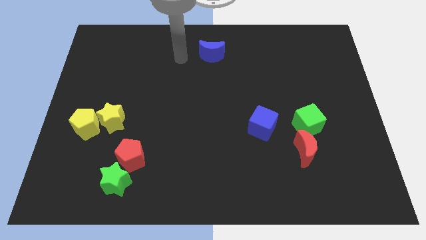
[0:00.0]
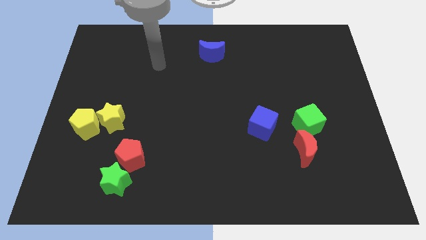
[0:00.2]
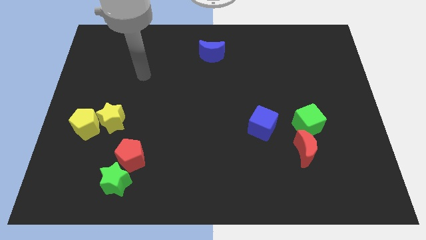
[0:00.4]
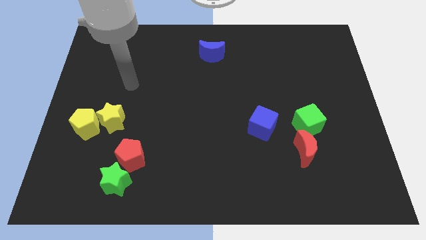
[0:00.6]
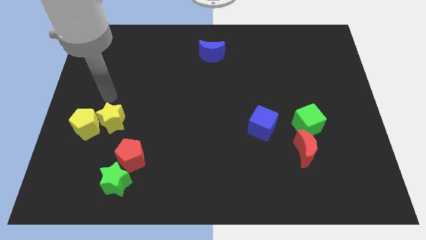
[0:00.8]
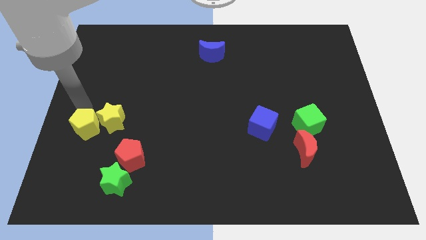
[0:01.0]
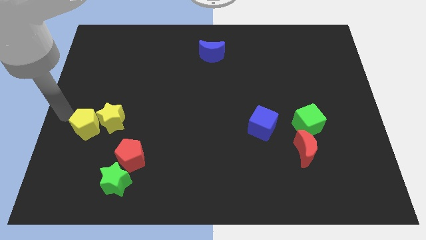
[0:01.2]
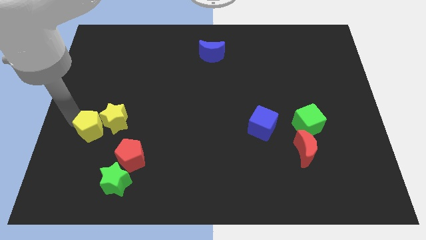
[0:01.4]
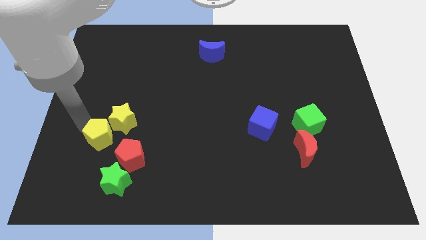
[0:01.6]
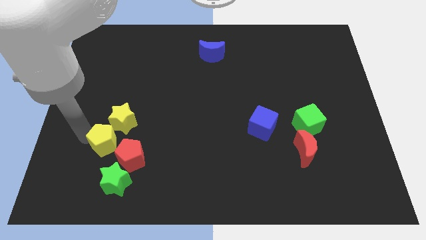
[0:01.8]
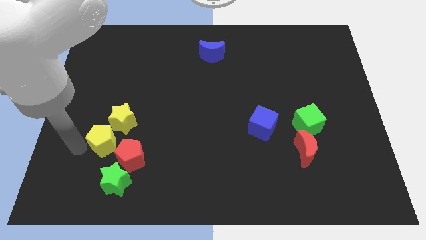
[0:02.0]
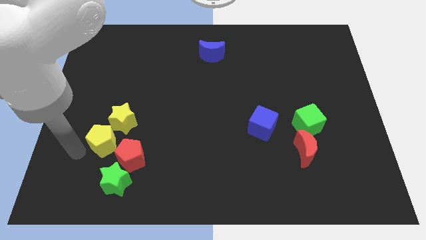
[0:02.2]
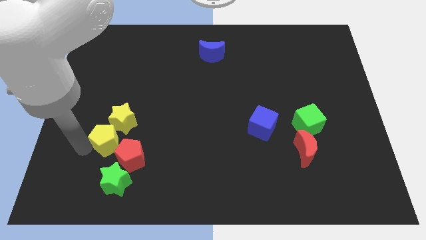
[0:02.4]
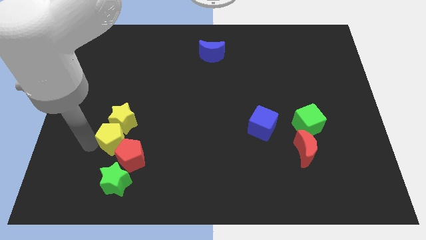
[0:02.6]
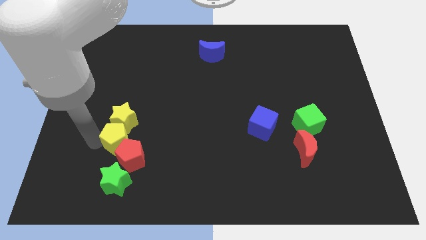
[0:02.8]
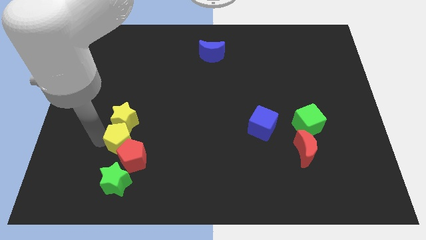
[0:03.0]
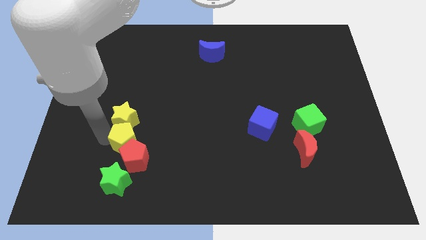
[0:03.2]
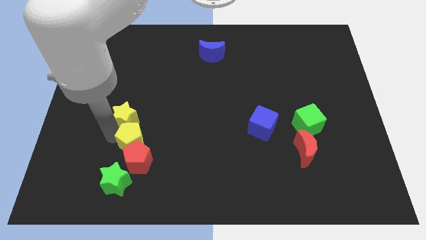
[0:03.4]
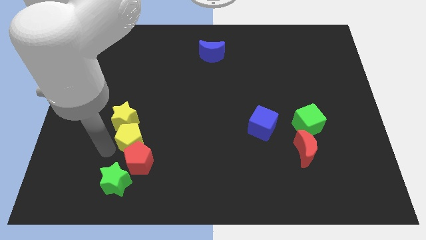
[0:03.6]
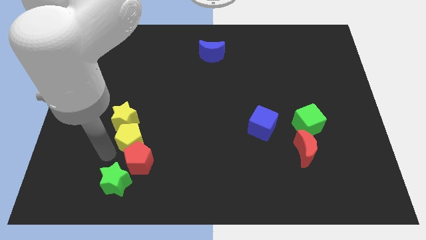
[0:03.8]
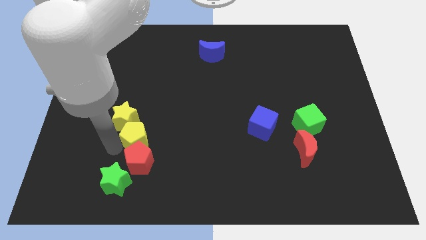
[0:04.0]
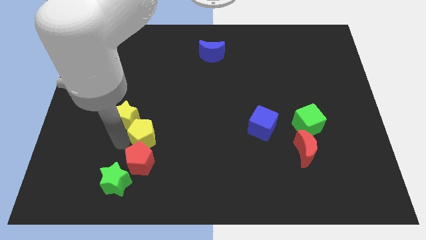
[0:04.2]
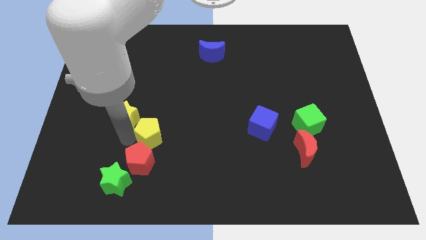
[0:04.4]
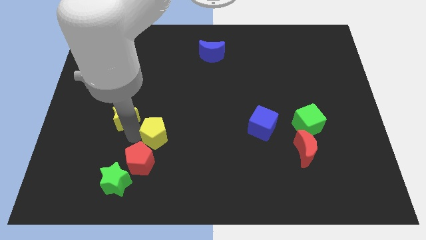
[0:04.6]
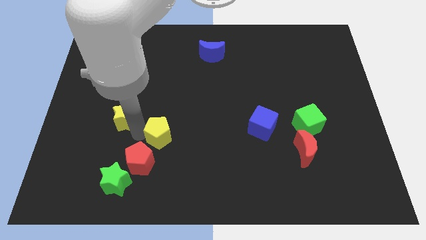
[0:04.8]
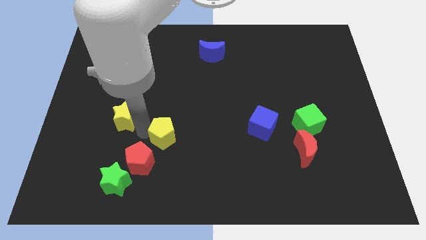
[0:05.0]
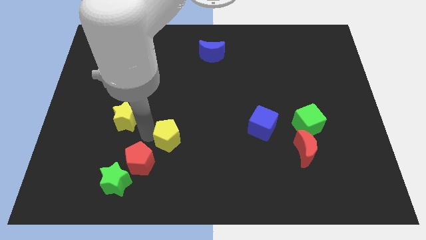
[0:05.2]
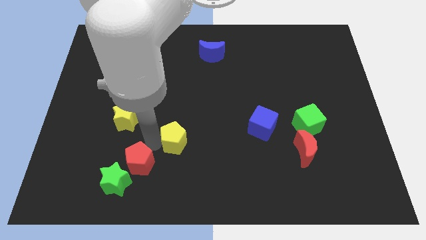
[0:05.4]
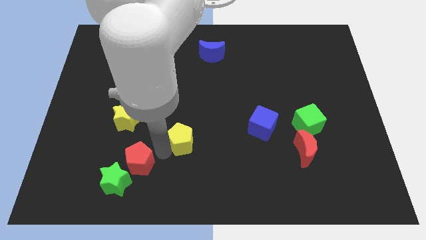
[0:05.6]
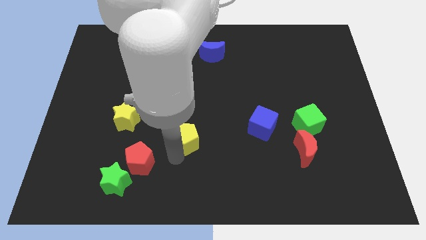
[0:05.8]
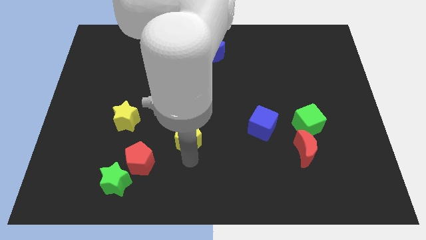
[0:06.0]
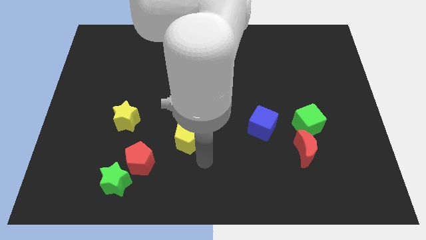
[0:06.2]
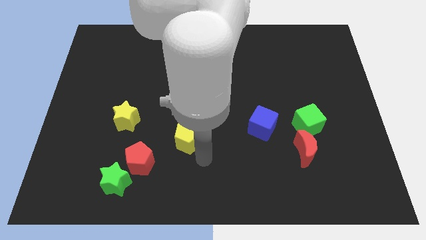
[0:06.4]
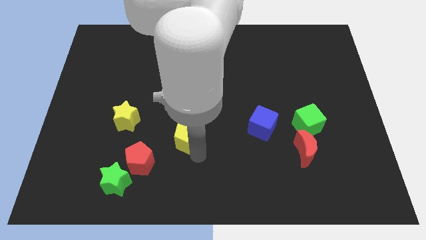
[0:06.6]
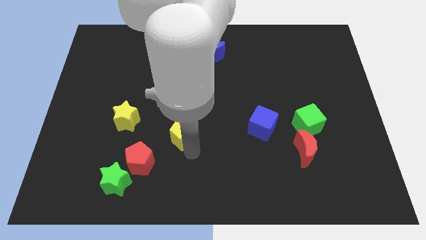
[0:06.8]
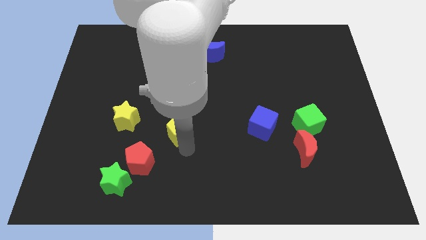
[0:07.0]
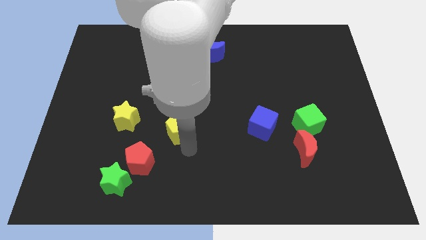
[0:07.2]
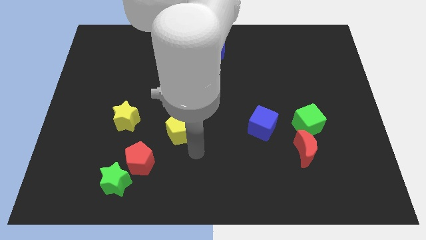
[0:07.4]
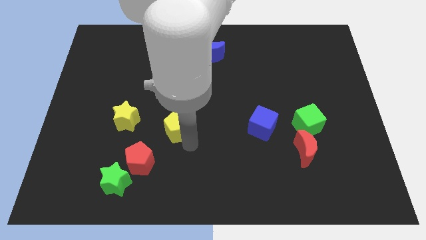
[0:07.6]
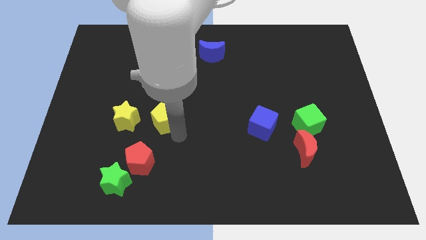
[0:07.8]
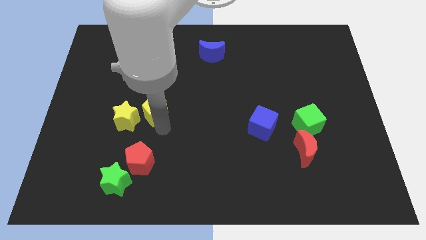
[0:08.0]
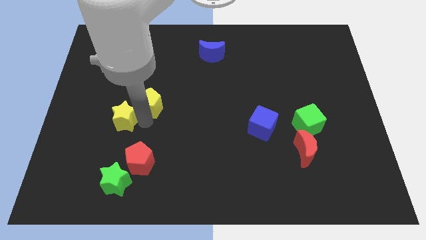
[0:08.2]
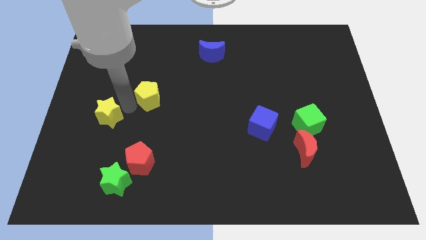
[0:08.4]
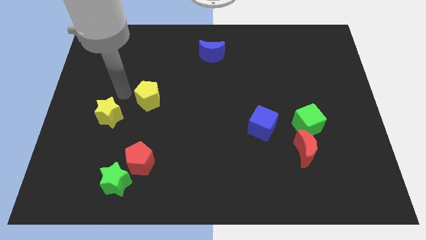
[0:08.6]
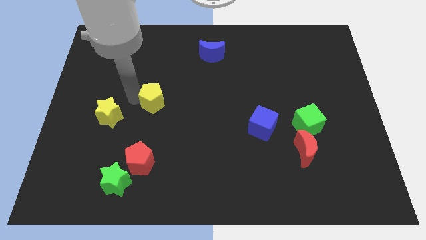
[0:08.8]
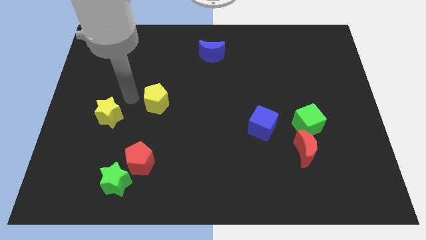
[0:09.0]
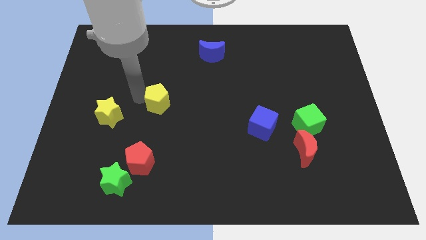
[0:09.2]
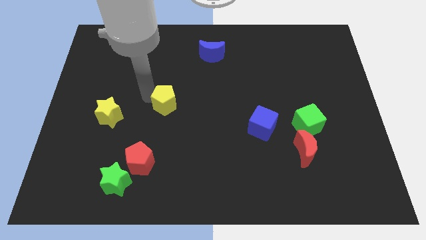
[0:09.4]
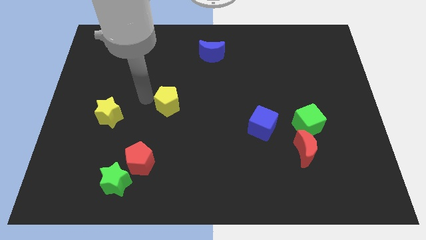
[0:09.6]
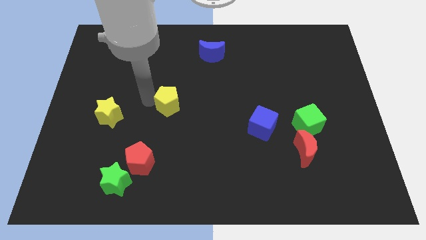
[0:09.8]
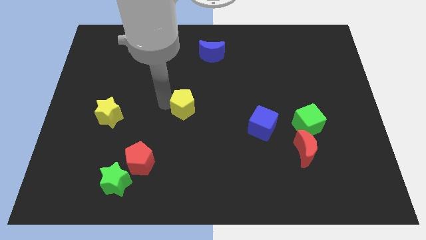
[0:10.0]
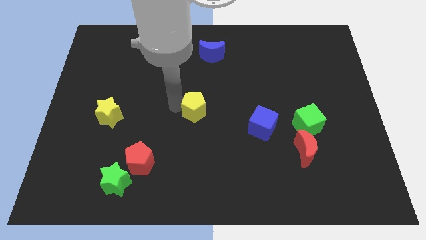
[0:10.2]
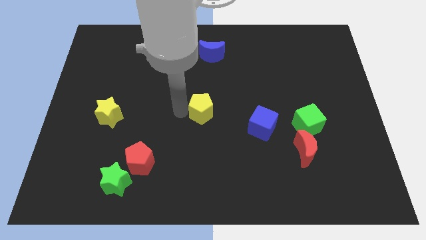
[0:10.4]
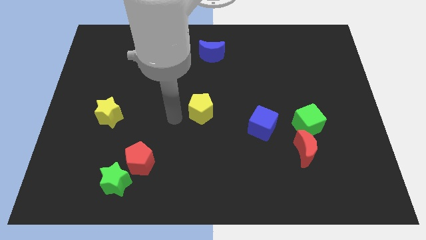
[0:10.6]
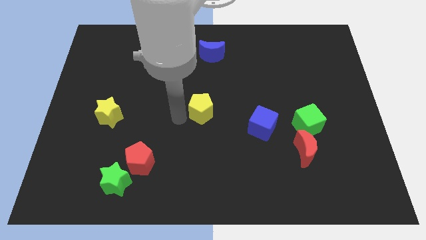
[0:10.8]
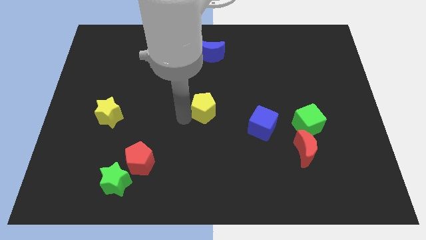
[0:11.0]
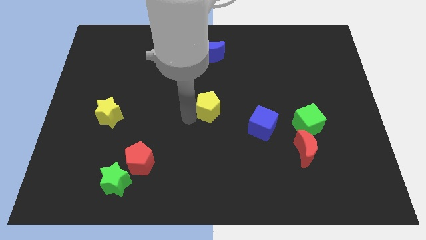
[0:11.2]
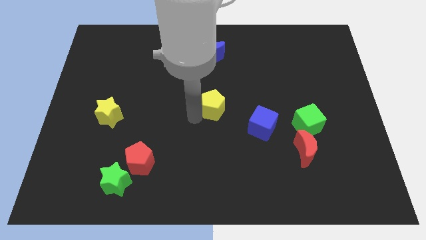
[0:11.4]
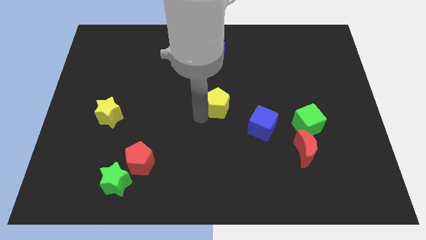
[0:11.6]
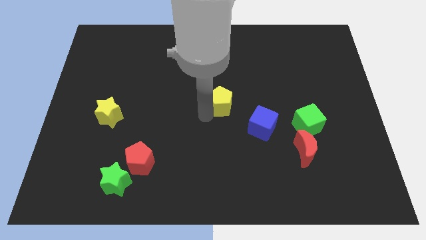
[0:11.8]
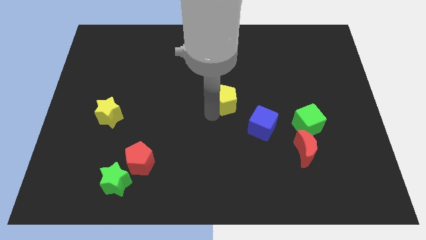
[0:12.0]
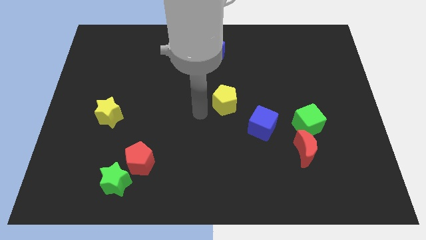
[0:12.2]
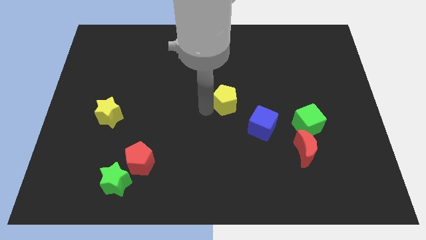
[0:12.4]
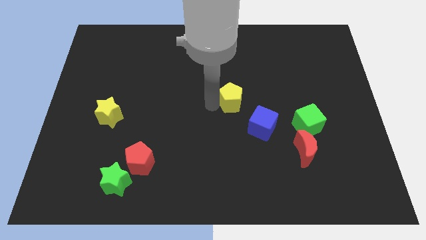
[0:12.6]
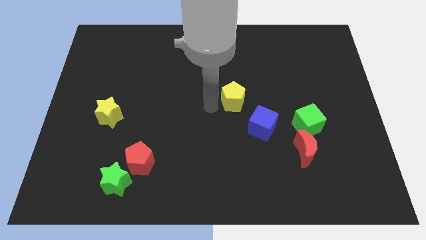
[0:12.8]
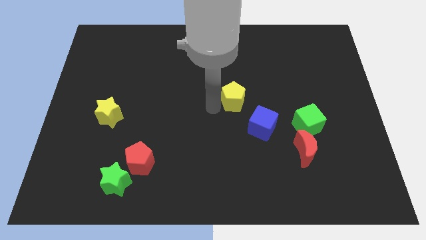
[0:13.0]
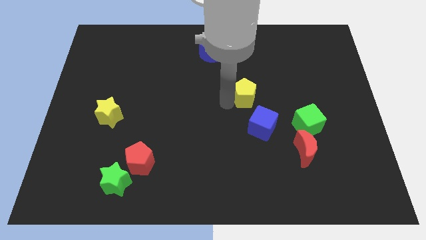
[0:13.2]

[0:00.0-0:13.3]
put the yellow pentagon to the top side of the blue cube

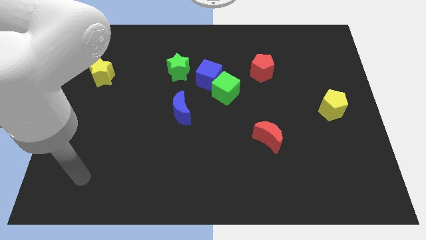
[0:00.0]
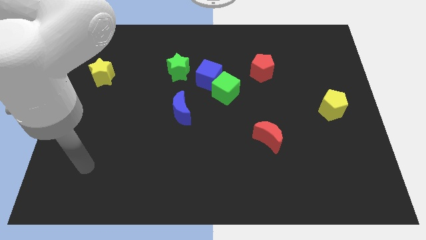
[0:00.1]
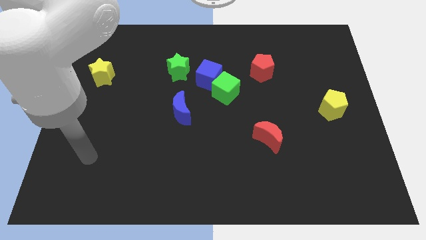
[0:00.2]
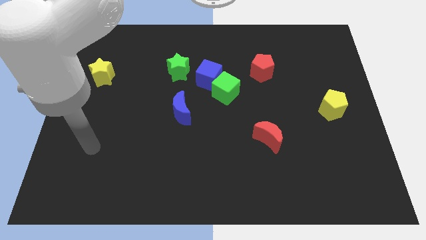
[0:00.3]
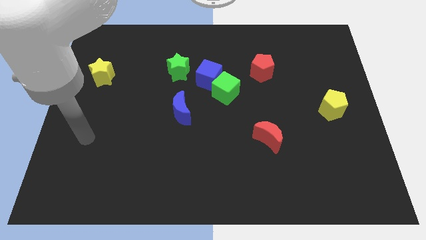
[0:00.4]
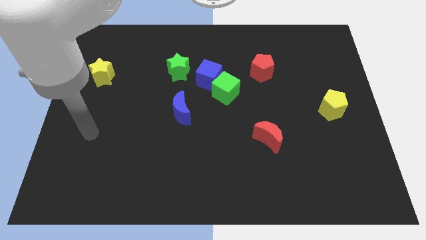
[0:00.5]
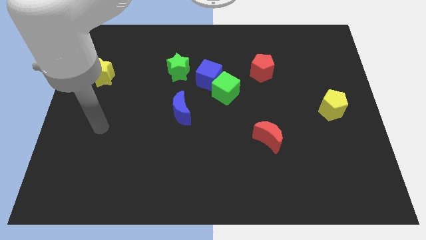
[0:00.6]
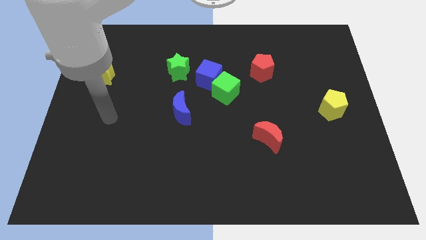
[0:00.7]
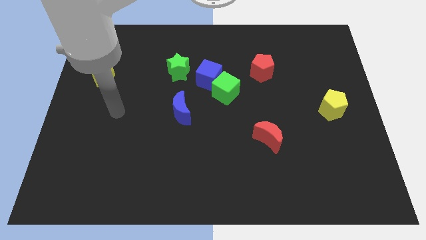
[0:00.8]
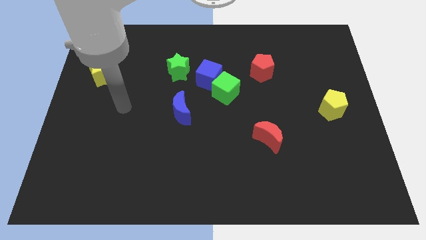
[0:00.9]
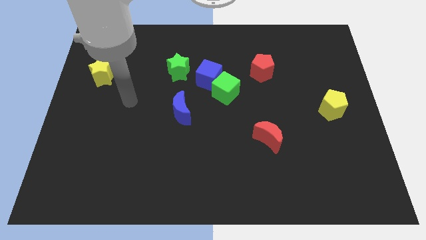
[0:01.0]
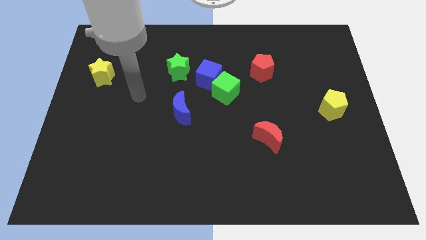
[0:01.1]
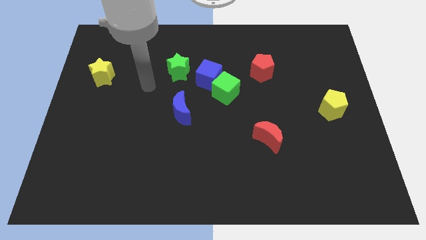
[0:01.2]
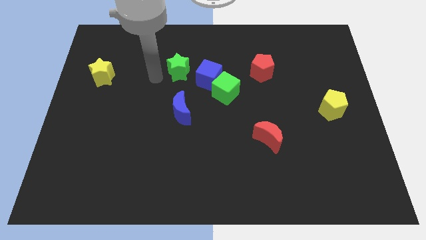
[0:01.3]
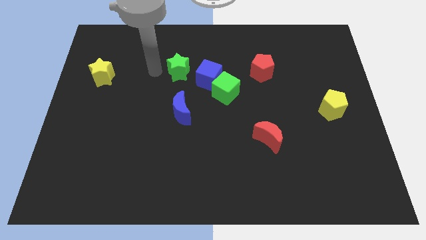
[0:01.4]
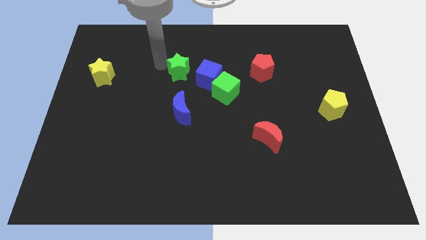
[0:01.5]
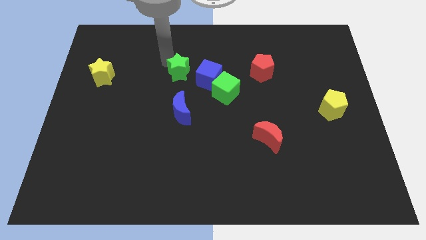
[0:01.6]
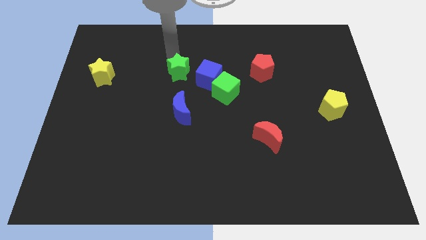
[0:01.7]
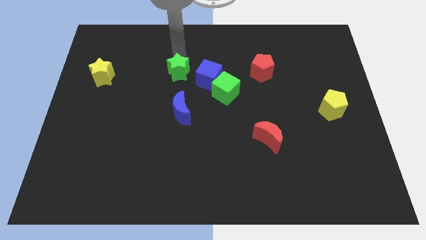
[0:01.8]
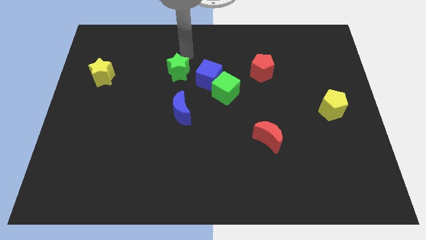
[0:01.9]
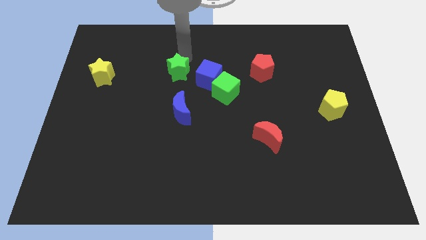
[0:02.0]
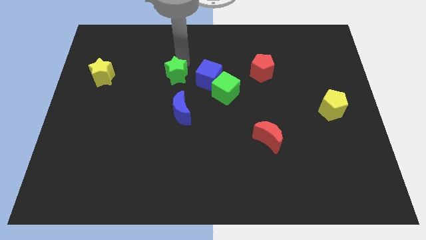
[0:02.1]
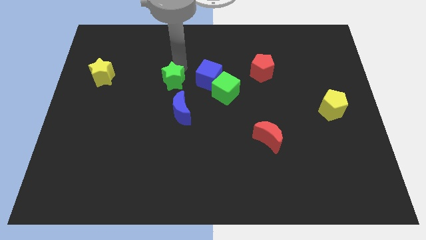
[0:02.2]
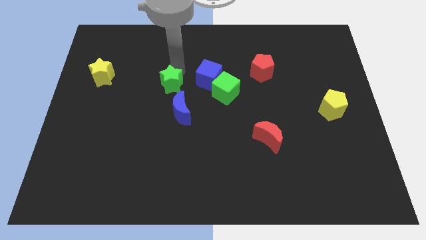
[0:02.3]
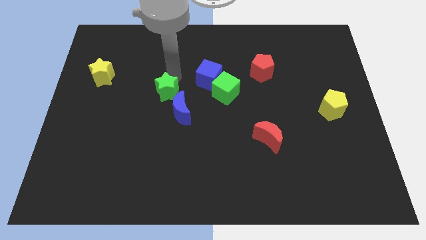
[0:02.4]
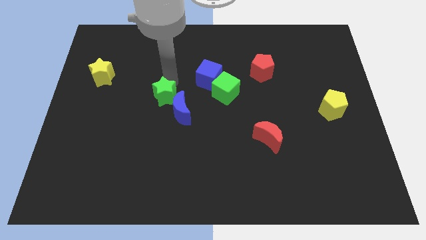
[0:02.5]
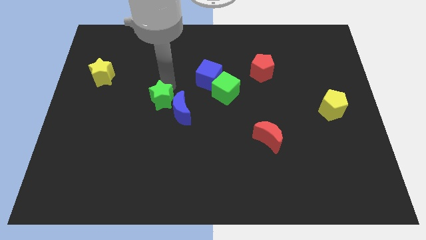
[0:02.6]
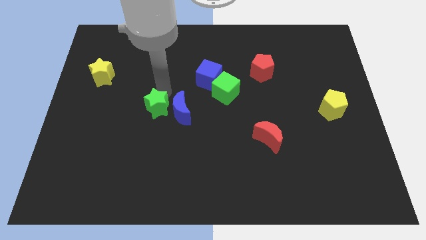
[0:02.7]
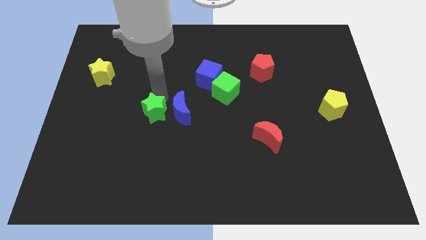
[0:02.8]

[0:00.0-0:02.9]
move the green star to the bottom left of the blue moon
